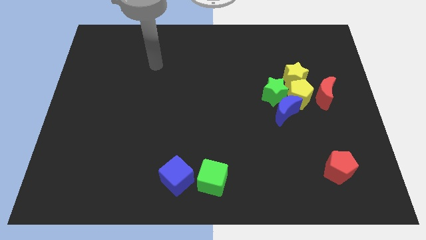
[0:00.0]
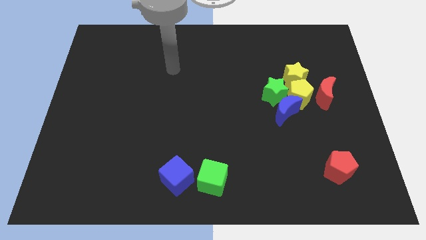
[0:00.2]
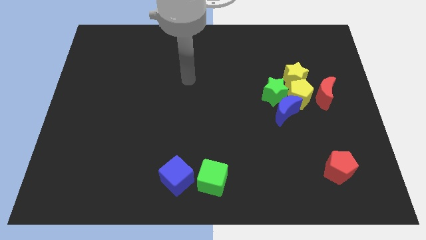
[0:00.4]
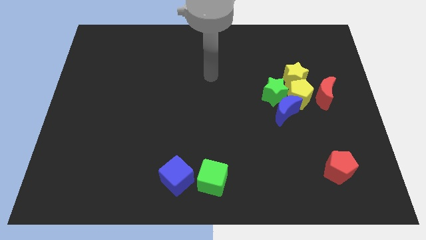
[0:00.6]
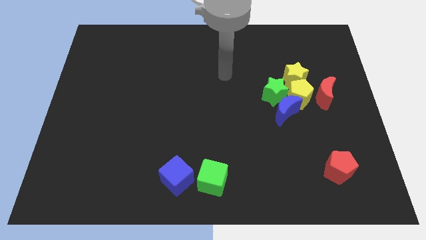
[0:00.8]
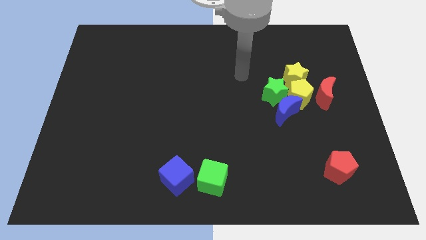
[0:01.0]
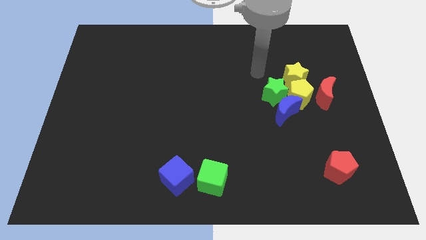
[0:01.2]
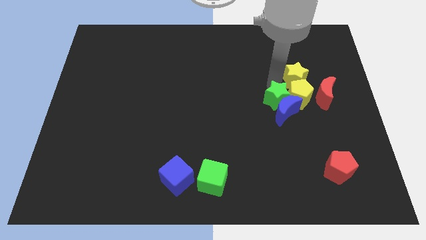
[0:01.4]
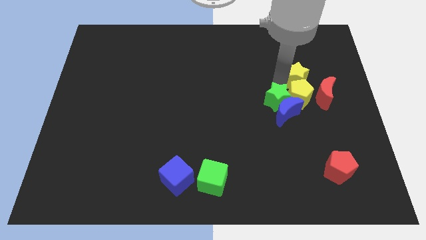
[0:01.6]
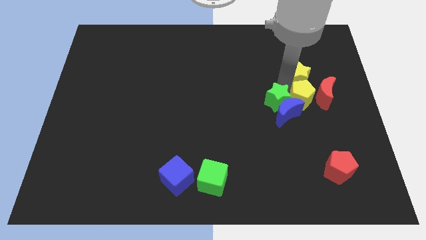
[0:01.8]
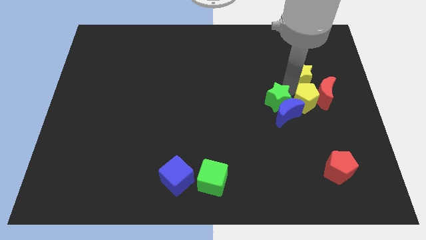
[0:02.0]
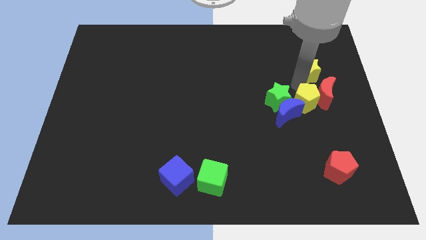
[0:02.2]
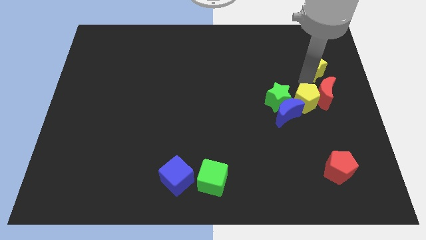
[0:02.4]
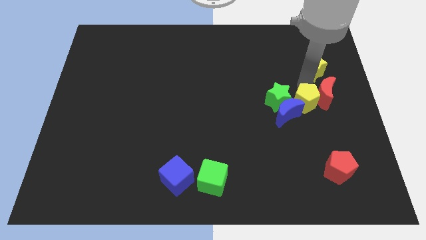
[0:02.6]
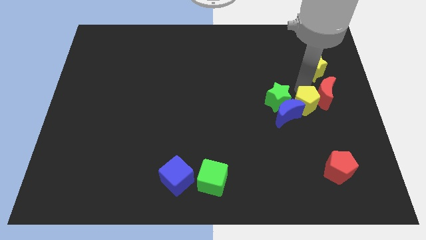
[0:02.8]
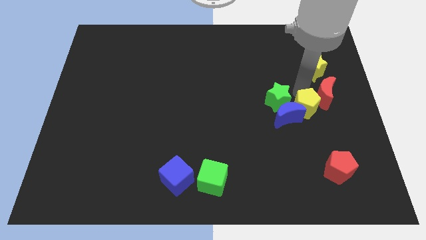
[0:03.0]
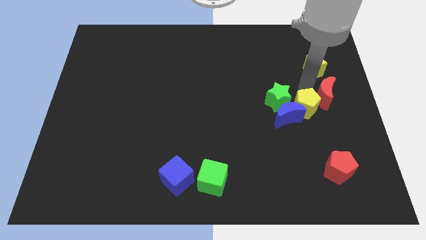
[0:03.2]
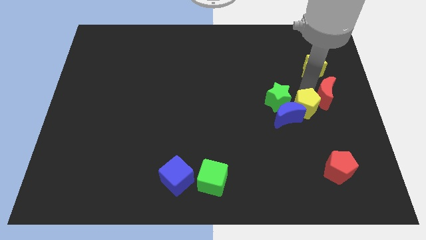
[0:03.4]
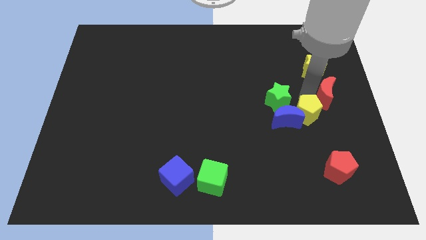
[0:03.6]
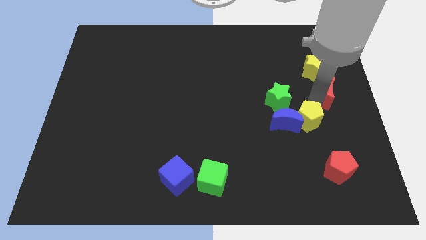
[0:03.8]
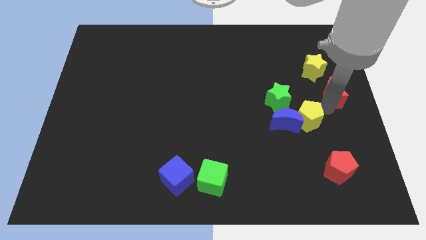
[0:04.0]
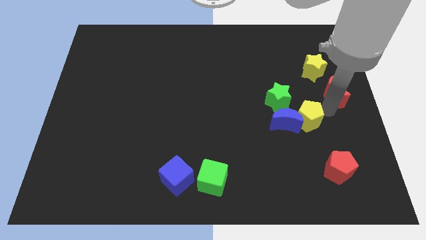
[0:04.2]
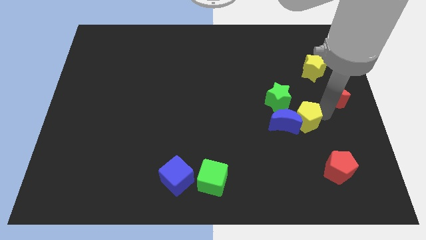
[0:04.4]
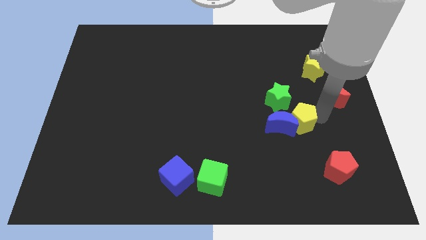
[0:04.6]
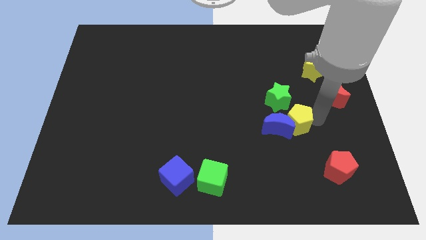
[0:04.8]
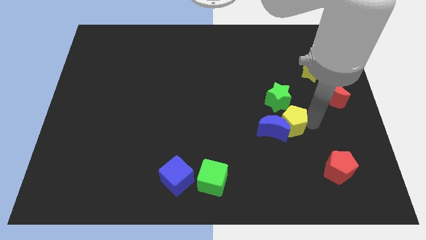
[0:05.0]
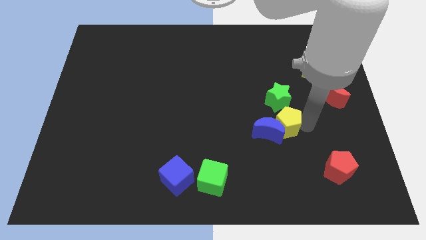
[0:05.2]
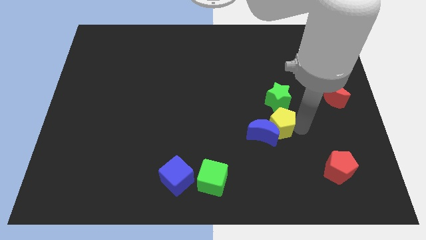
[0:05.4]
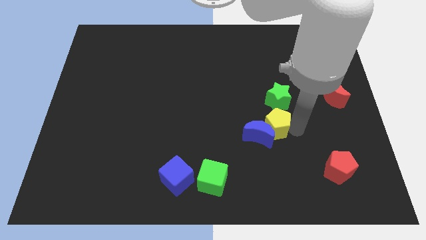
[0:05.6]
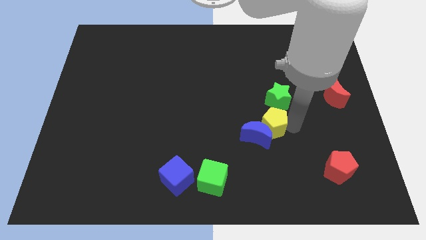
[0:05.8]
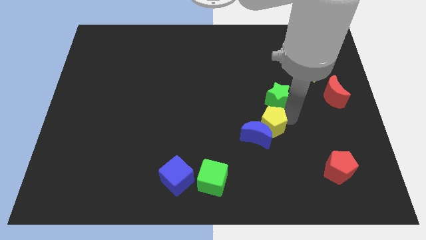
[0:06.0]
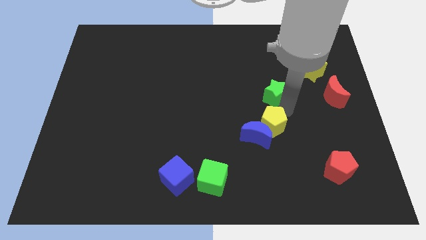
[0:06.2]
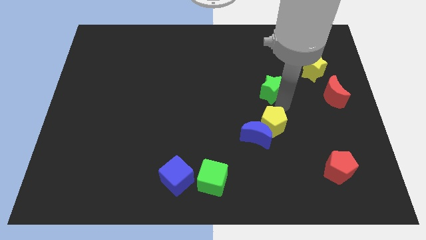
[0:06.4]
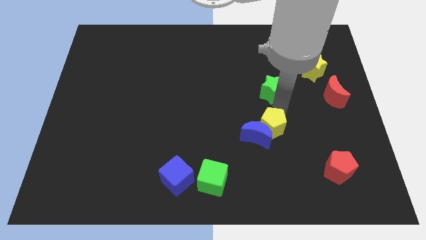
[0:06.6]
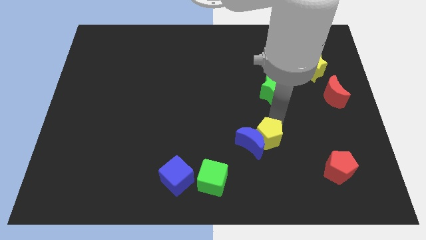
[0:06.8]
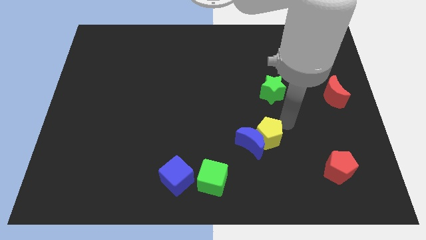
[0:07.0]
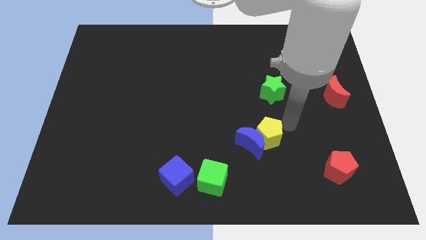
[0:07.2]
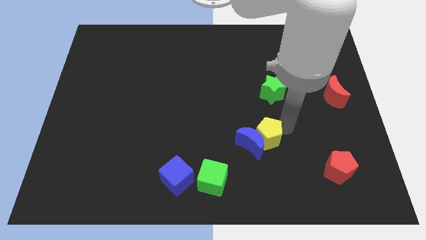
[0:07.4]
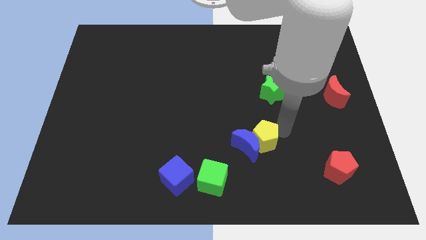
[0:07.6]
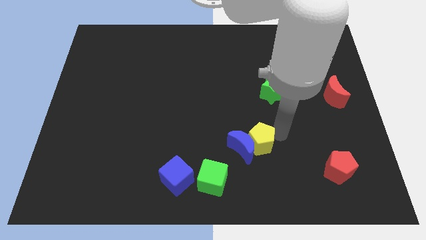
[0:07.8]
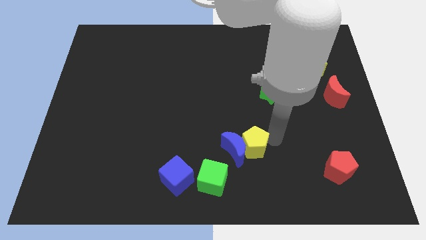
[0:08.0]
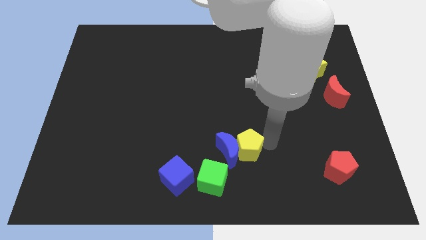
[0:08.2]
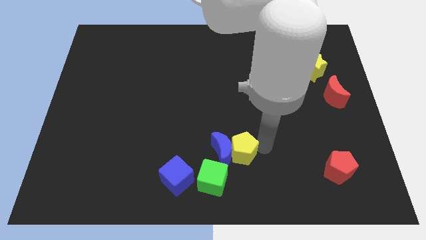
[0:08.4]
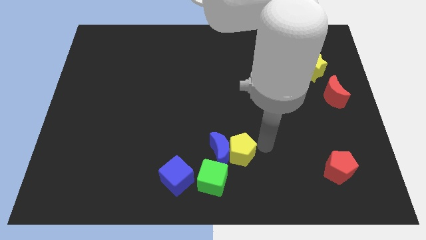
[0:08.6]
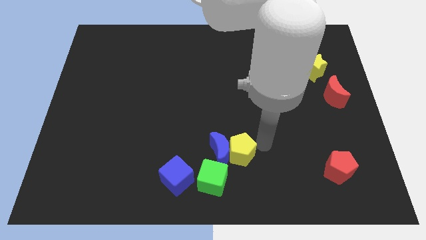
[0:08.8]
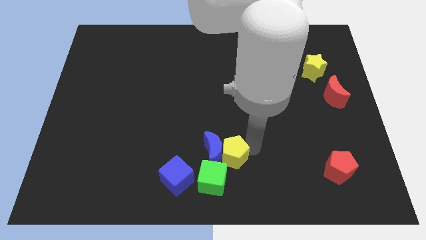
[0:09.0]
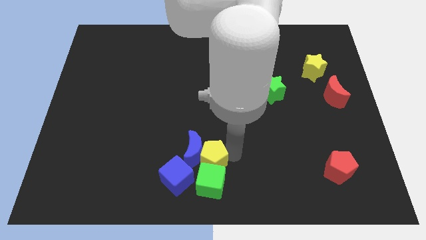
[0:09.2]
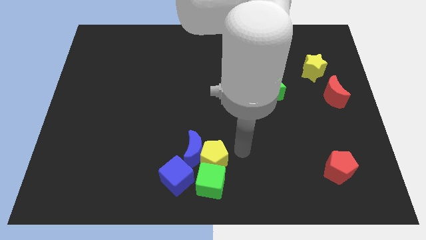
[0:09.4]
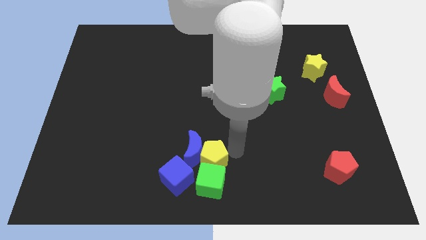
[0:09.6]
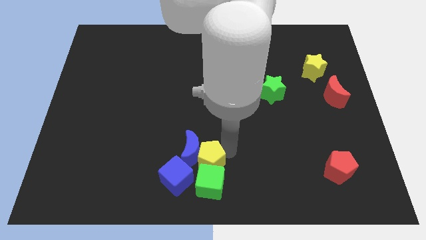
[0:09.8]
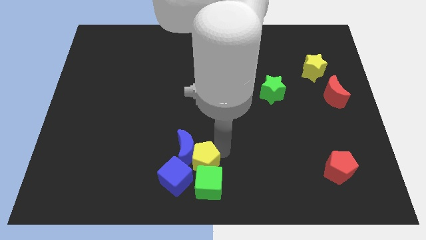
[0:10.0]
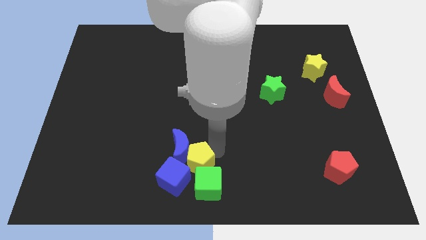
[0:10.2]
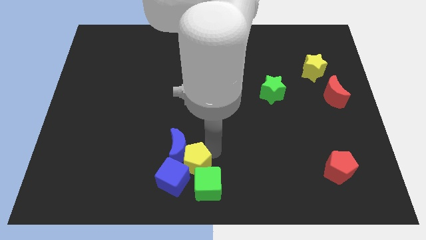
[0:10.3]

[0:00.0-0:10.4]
push the yellow pentagon next to the blue cube

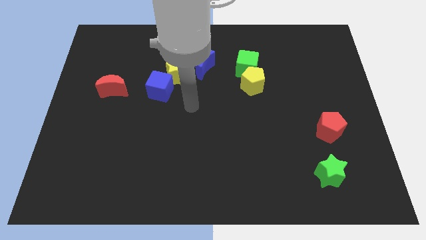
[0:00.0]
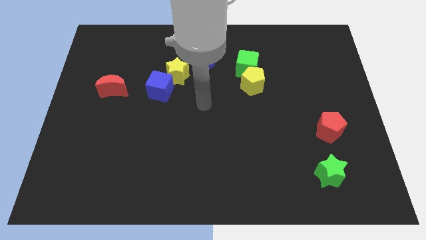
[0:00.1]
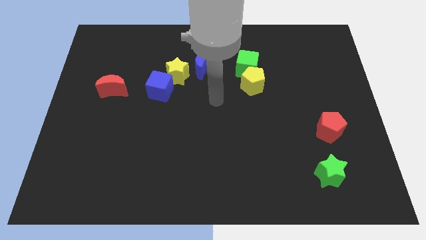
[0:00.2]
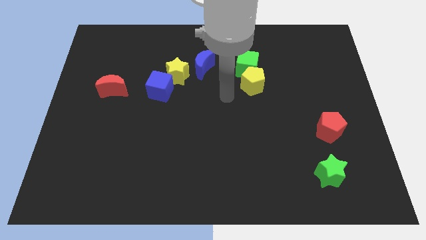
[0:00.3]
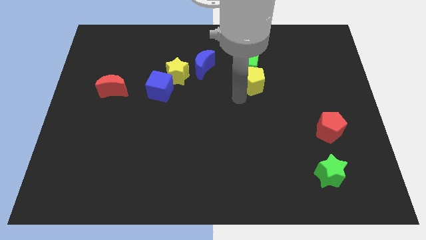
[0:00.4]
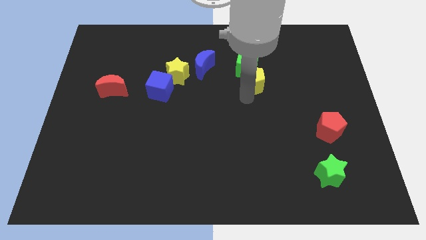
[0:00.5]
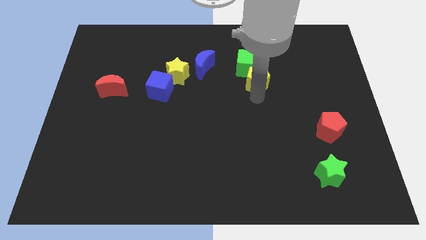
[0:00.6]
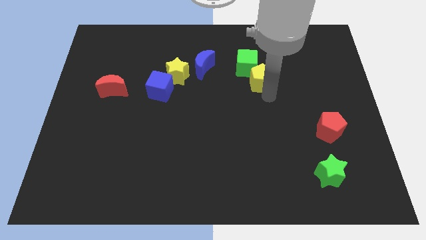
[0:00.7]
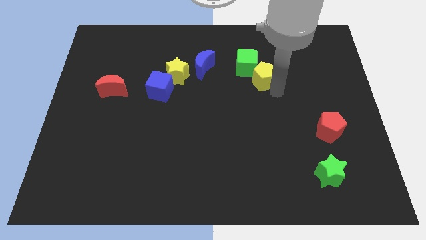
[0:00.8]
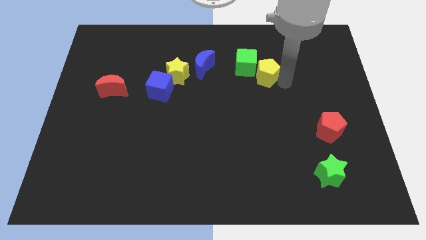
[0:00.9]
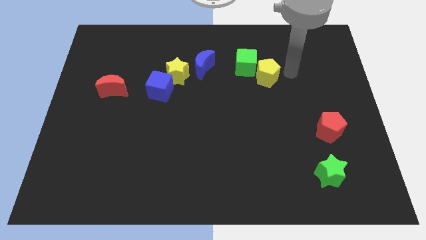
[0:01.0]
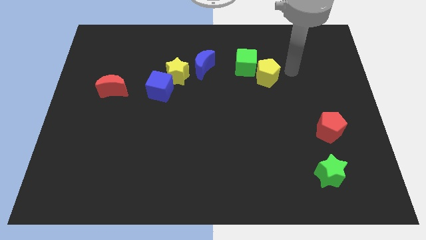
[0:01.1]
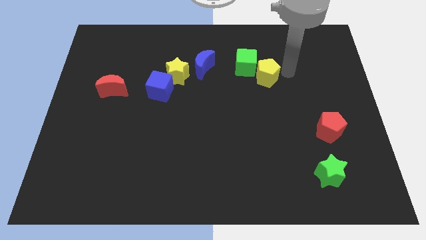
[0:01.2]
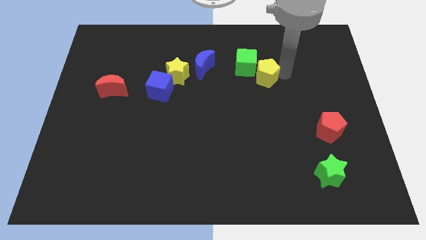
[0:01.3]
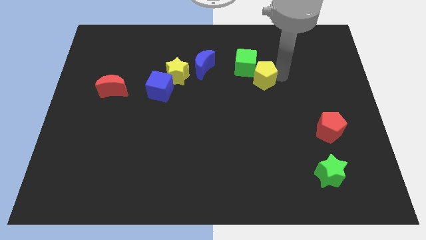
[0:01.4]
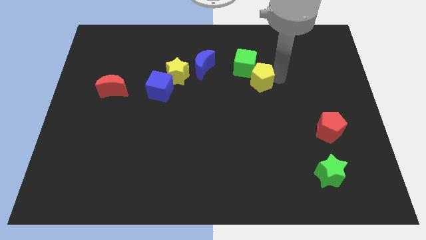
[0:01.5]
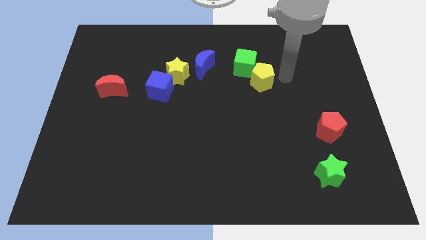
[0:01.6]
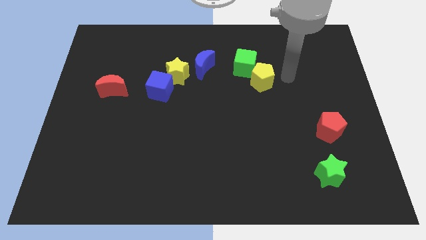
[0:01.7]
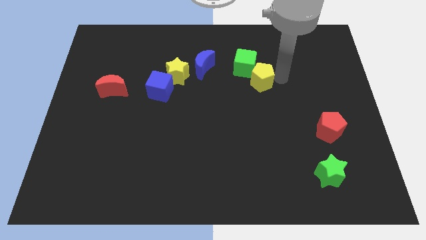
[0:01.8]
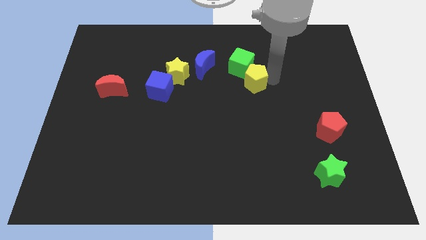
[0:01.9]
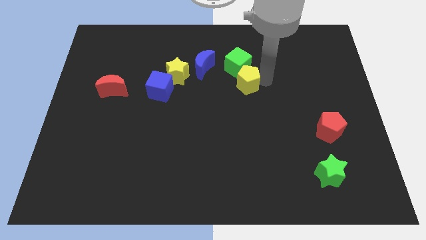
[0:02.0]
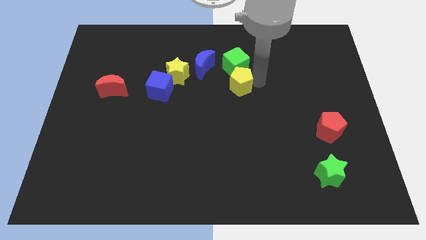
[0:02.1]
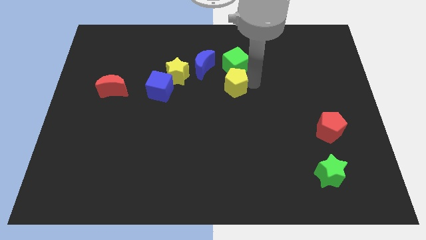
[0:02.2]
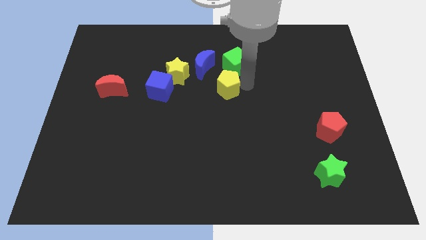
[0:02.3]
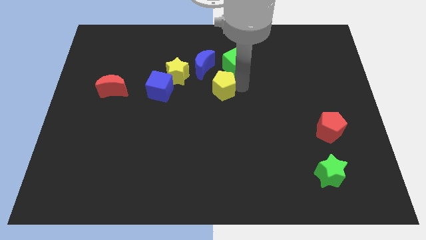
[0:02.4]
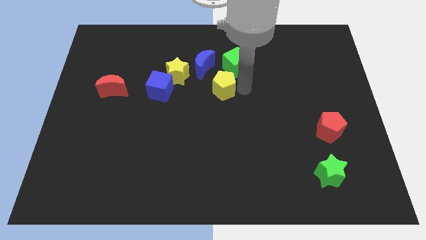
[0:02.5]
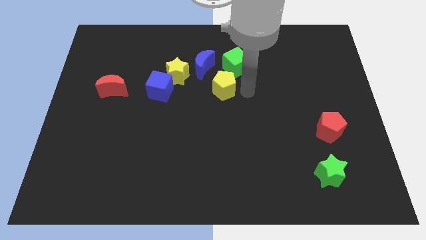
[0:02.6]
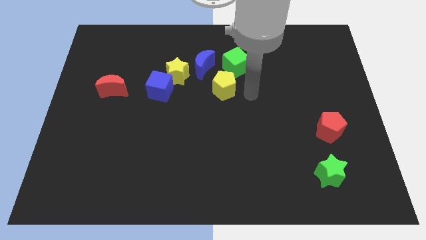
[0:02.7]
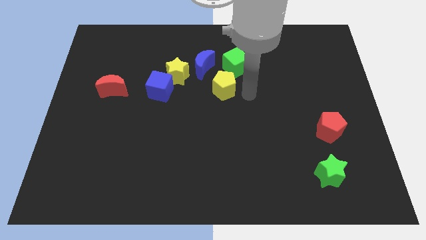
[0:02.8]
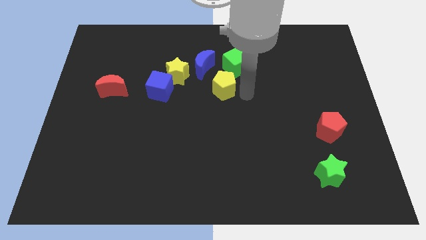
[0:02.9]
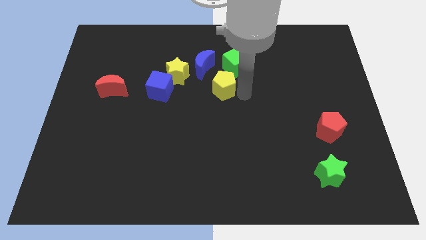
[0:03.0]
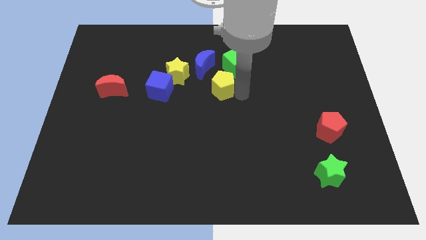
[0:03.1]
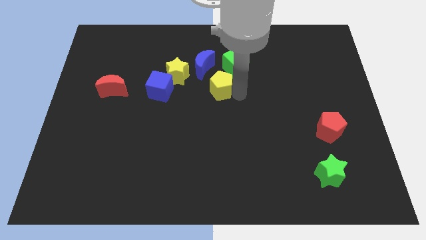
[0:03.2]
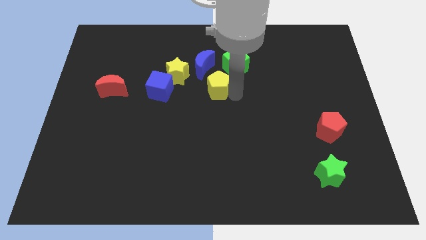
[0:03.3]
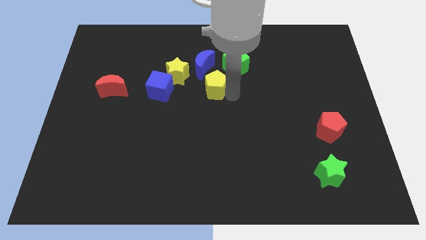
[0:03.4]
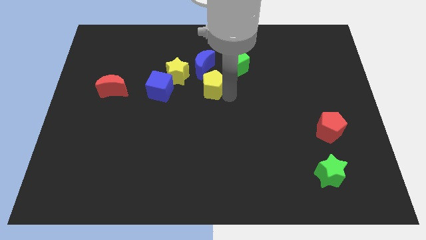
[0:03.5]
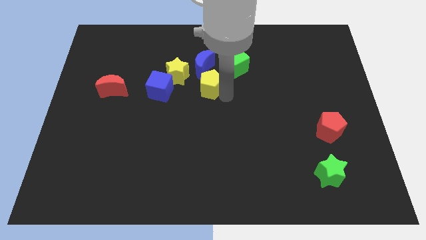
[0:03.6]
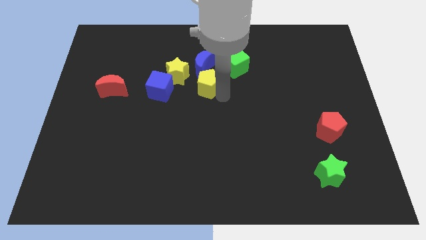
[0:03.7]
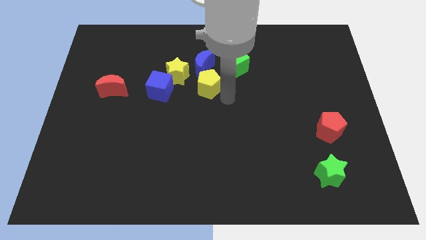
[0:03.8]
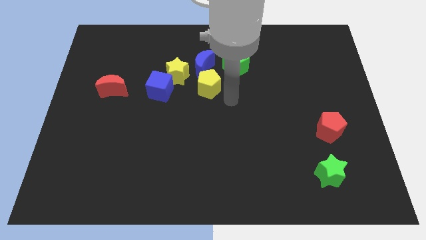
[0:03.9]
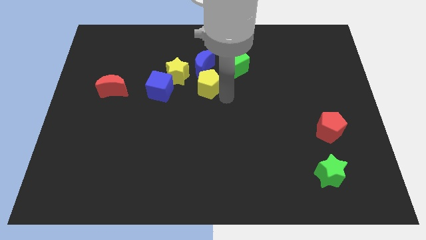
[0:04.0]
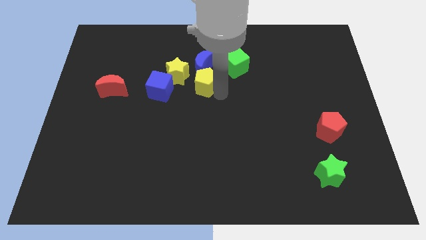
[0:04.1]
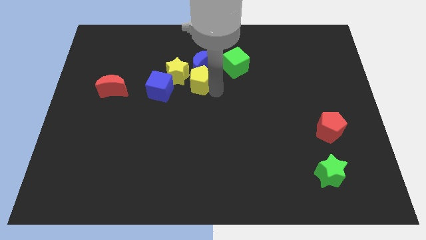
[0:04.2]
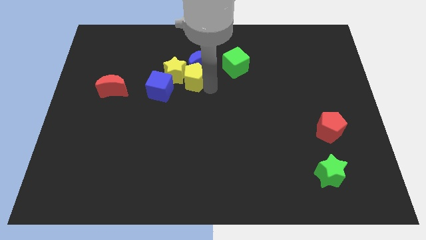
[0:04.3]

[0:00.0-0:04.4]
put the yellow pentagon towards the yellow star
